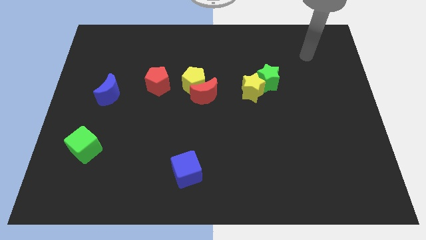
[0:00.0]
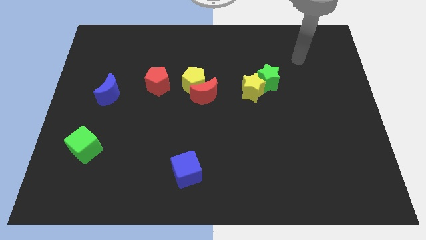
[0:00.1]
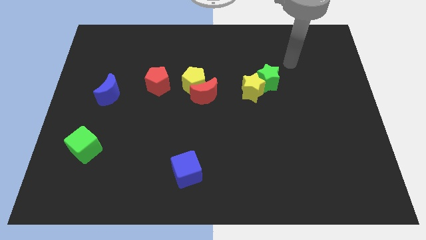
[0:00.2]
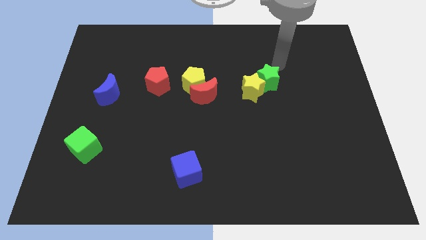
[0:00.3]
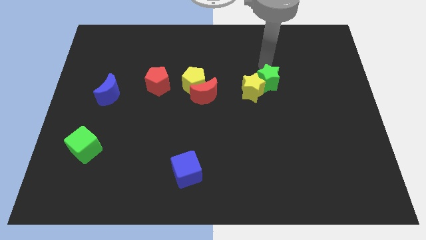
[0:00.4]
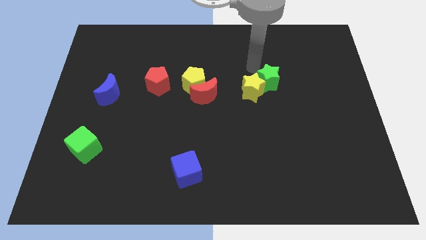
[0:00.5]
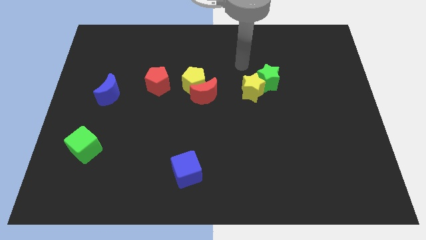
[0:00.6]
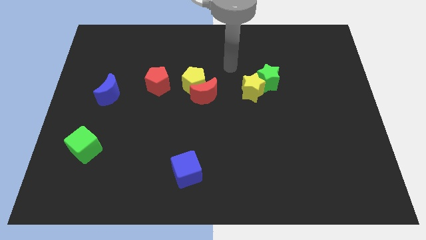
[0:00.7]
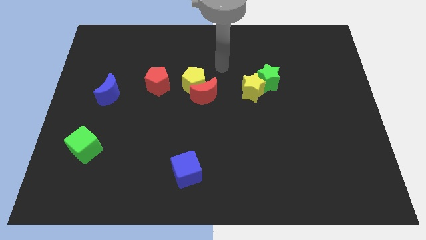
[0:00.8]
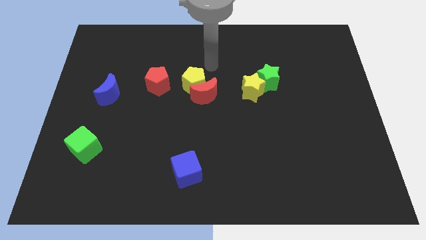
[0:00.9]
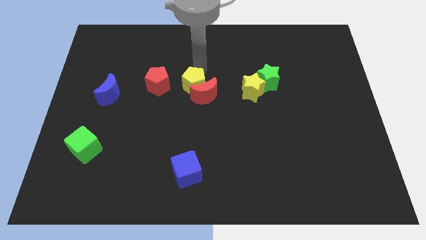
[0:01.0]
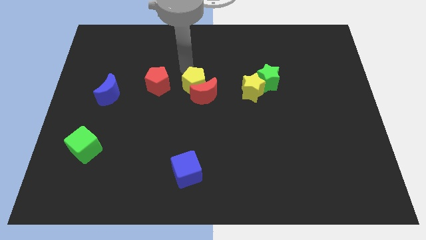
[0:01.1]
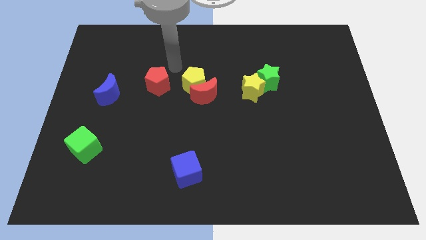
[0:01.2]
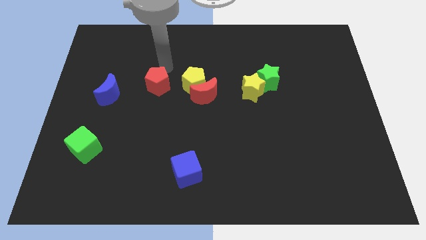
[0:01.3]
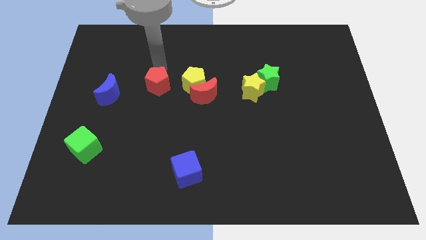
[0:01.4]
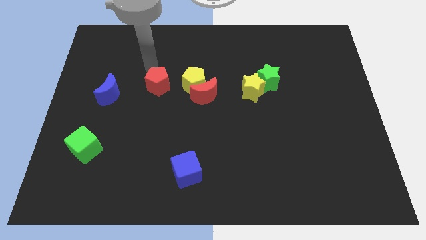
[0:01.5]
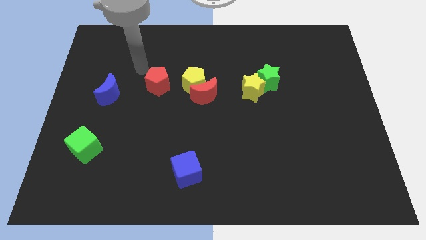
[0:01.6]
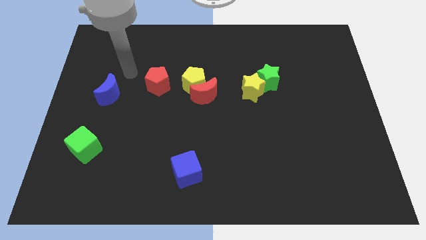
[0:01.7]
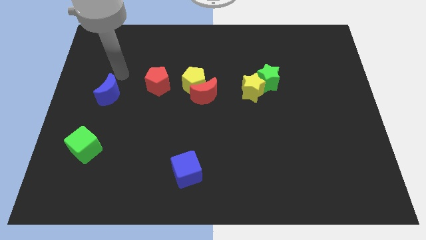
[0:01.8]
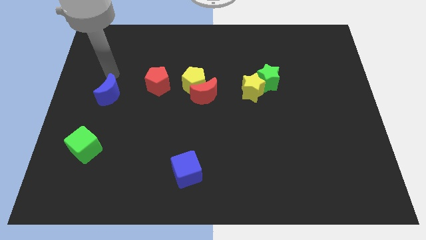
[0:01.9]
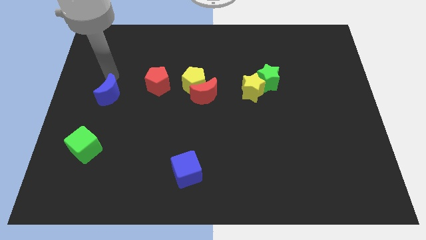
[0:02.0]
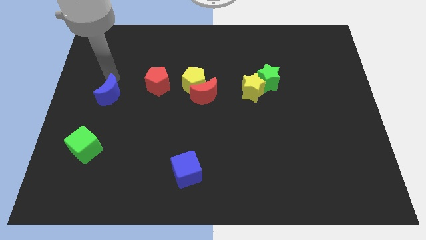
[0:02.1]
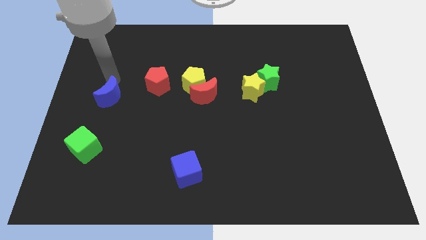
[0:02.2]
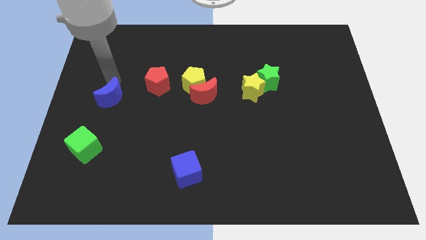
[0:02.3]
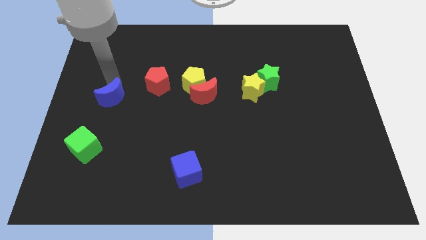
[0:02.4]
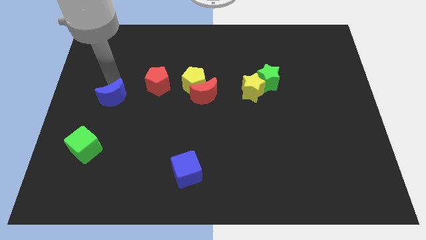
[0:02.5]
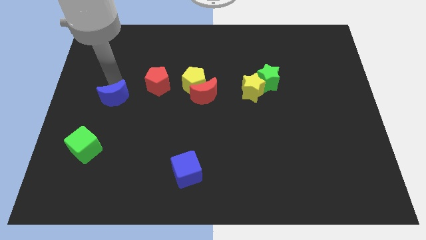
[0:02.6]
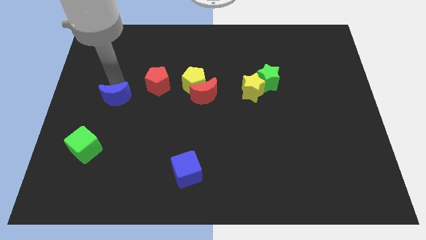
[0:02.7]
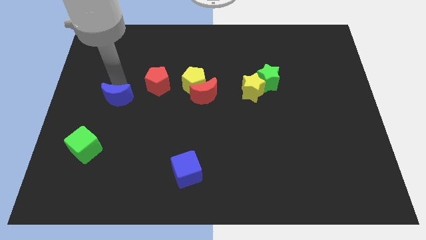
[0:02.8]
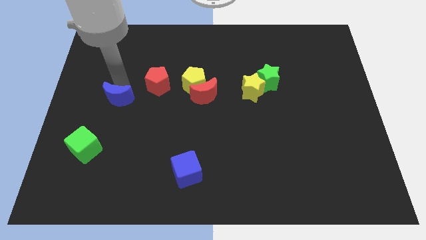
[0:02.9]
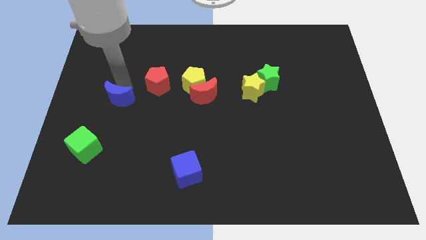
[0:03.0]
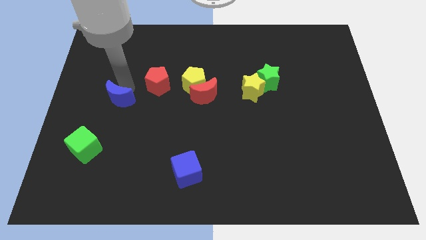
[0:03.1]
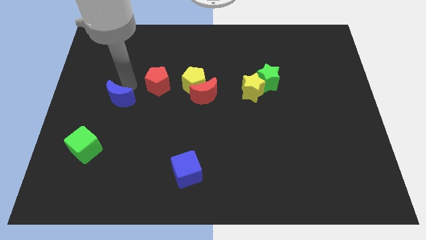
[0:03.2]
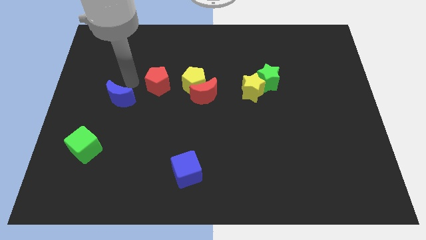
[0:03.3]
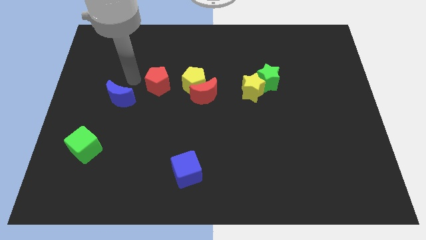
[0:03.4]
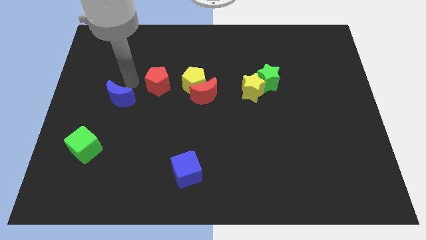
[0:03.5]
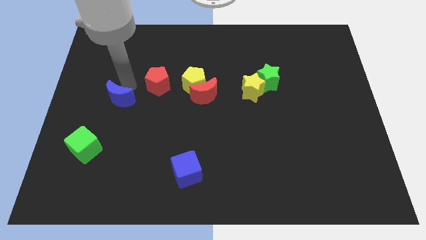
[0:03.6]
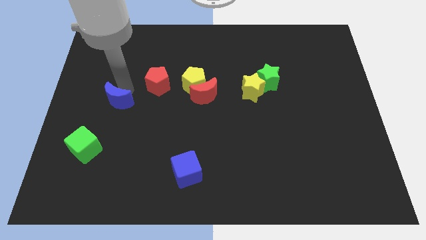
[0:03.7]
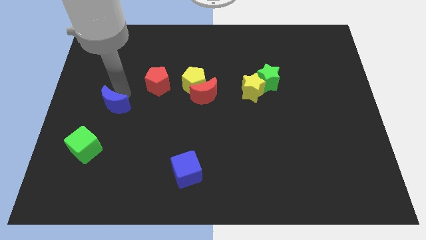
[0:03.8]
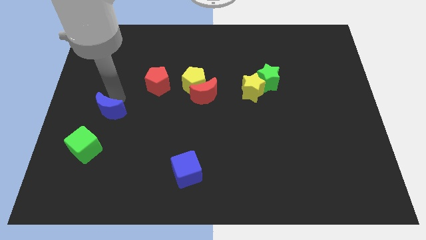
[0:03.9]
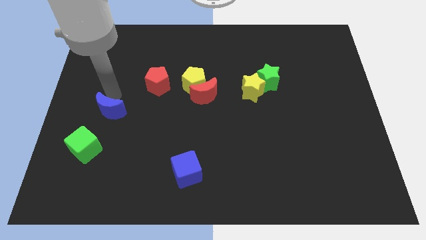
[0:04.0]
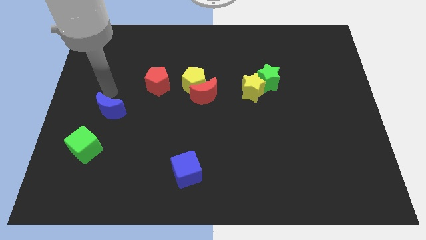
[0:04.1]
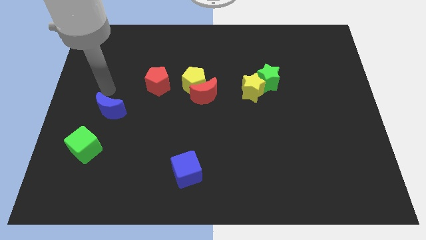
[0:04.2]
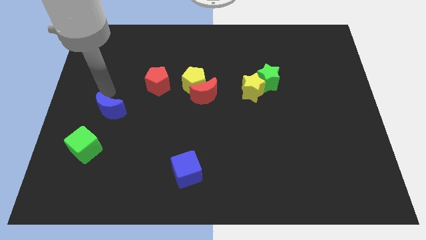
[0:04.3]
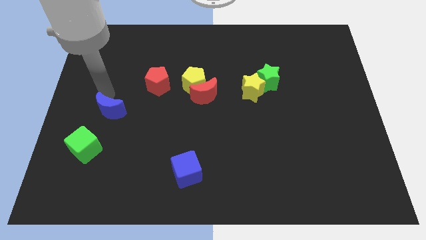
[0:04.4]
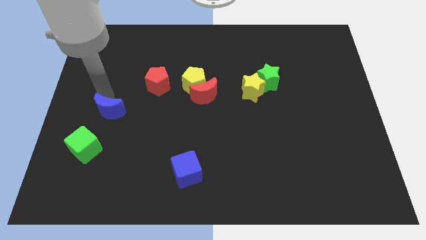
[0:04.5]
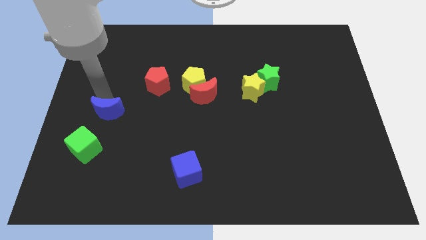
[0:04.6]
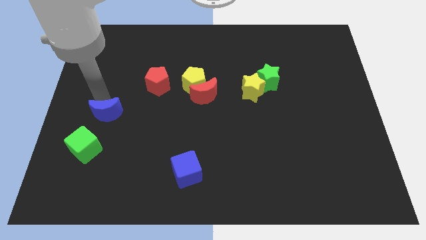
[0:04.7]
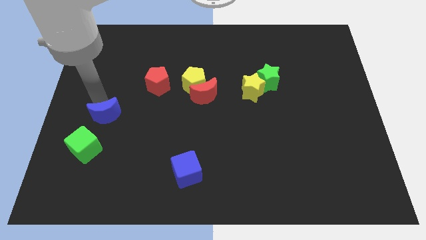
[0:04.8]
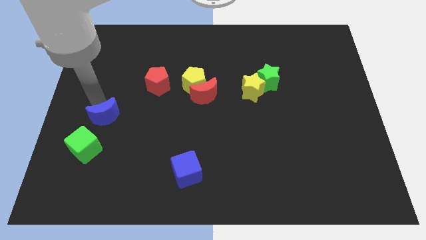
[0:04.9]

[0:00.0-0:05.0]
move the blue moon downwards a little bit

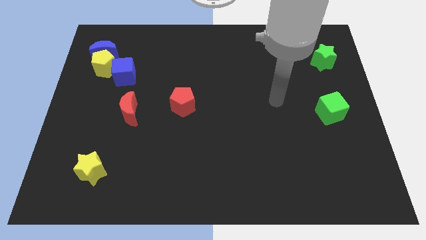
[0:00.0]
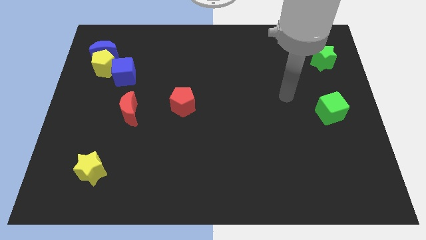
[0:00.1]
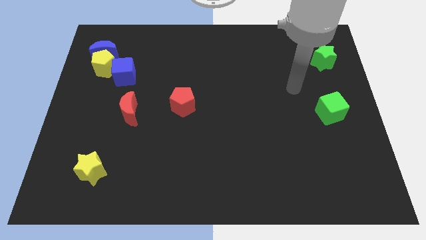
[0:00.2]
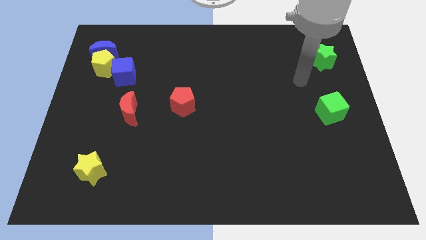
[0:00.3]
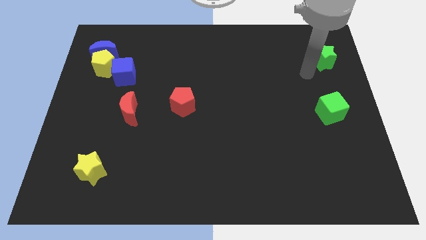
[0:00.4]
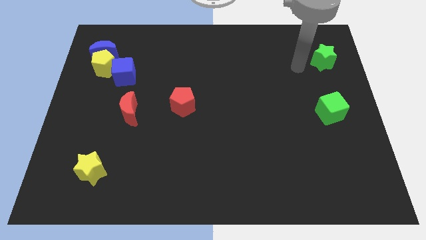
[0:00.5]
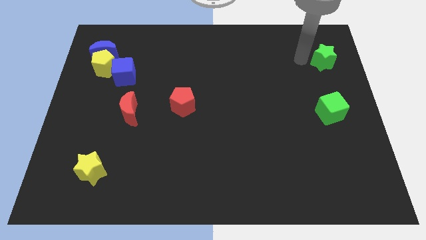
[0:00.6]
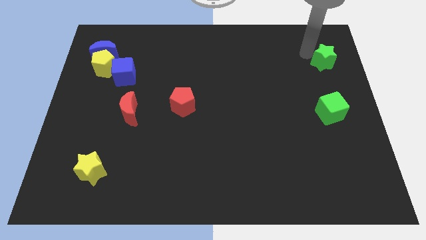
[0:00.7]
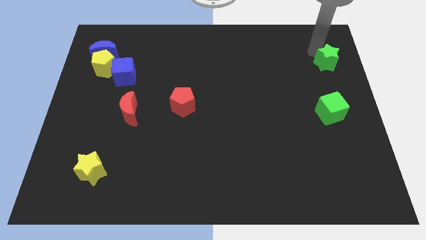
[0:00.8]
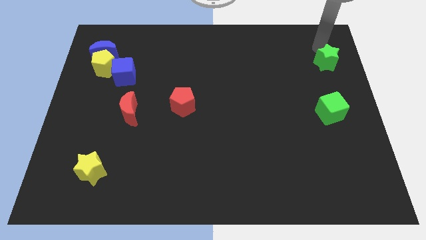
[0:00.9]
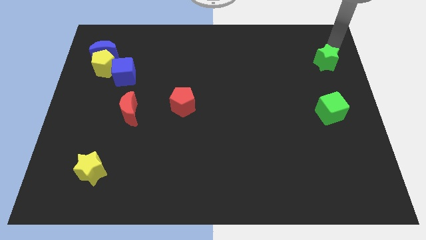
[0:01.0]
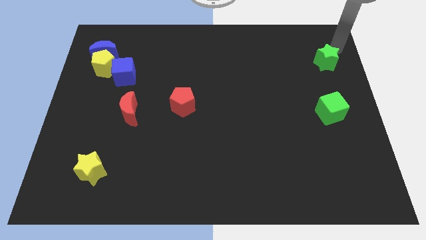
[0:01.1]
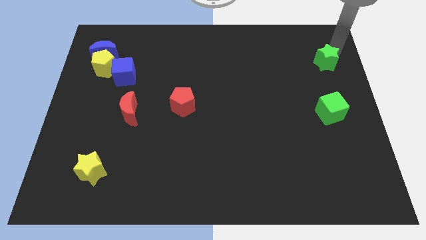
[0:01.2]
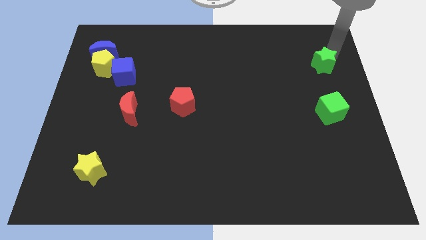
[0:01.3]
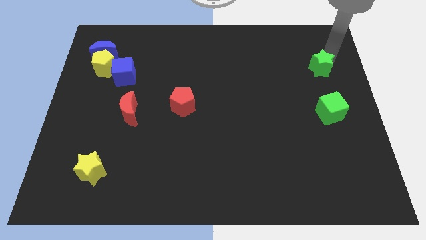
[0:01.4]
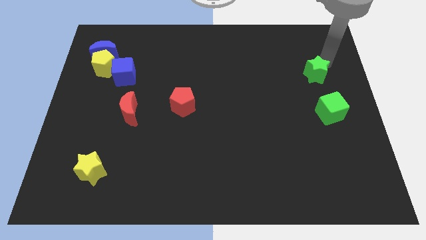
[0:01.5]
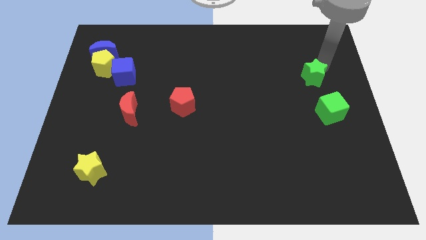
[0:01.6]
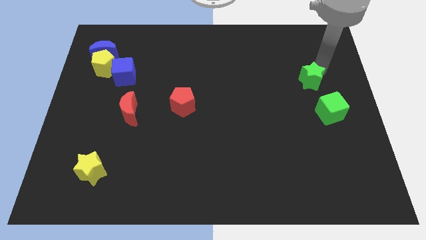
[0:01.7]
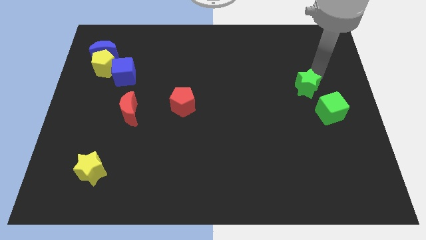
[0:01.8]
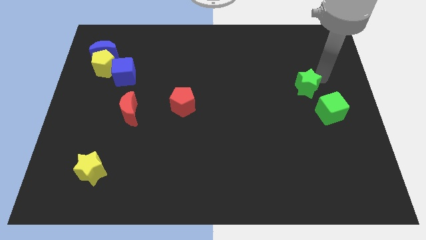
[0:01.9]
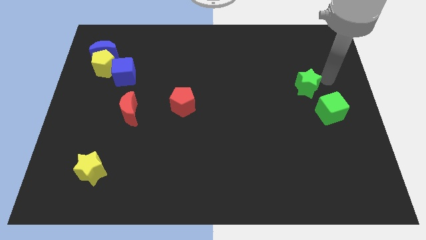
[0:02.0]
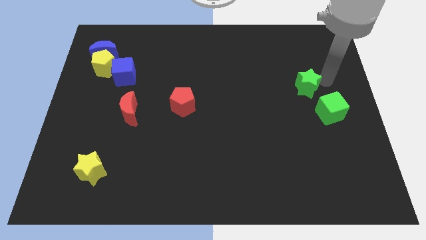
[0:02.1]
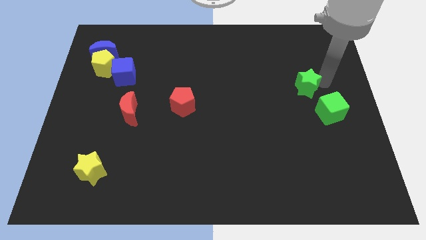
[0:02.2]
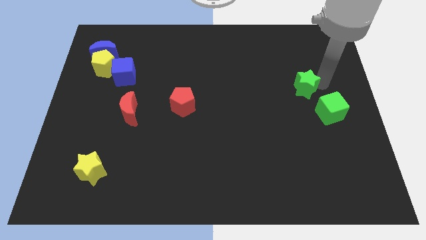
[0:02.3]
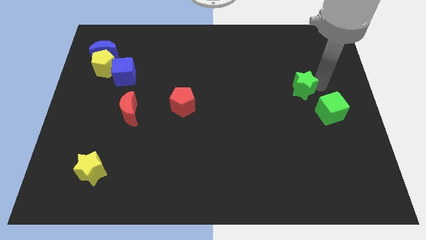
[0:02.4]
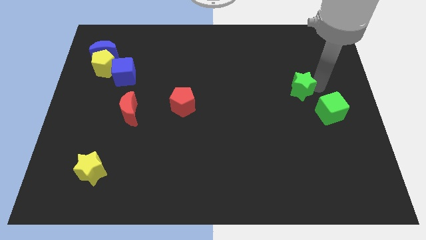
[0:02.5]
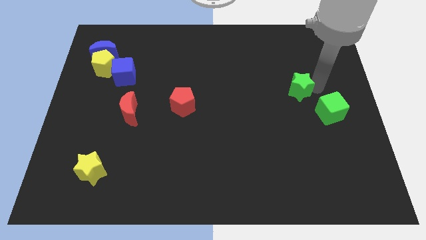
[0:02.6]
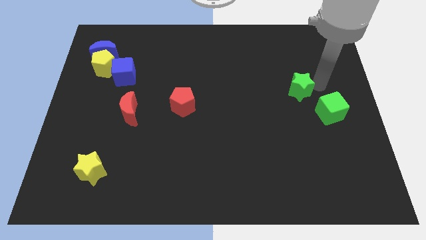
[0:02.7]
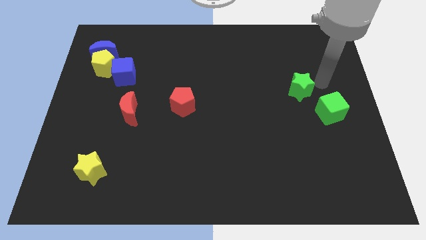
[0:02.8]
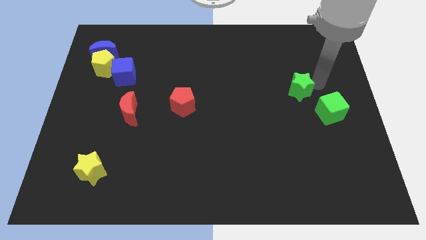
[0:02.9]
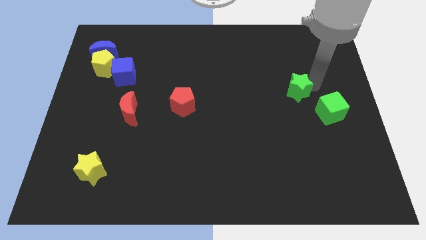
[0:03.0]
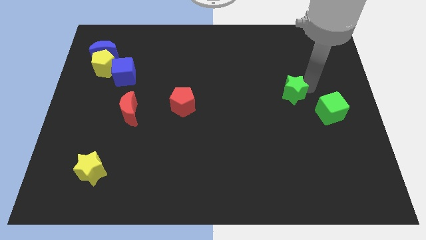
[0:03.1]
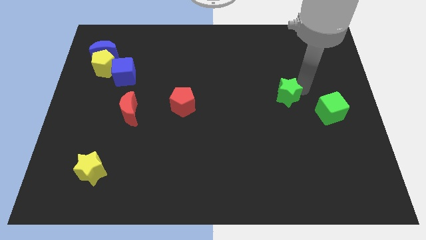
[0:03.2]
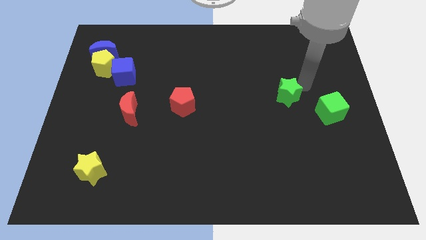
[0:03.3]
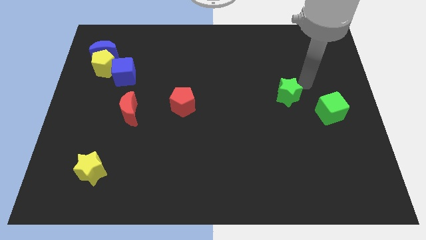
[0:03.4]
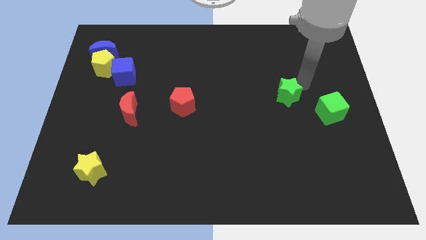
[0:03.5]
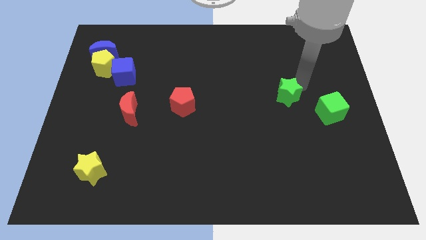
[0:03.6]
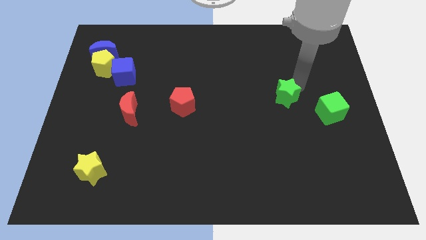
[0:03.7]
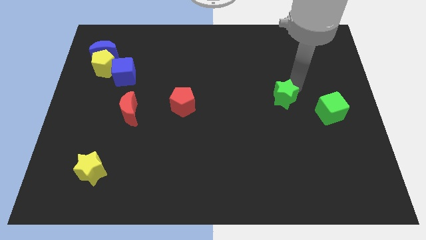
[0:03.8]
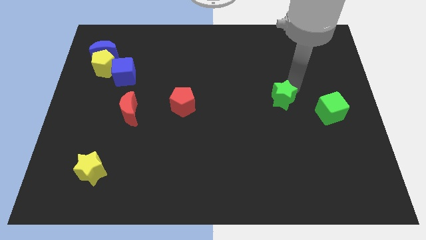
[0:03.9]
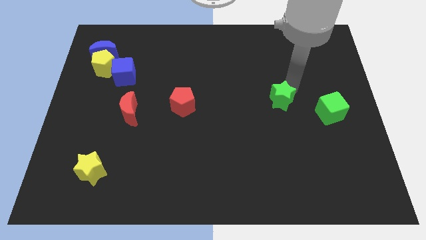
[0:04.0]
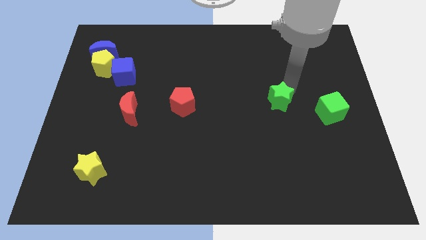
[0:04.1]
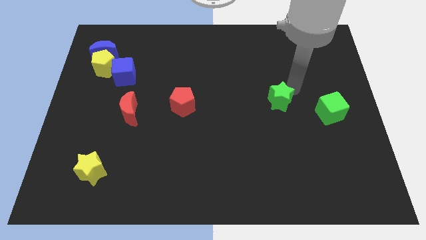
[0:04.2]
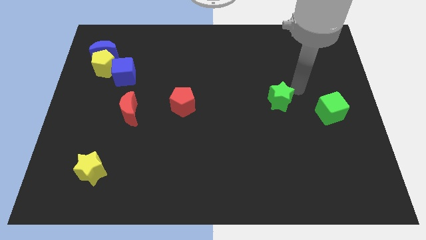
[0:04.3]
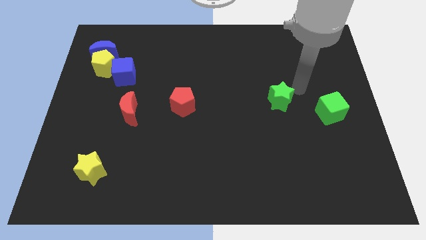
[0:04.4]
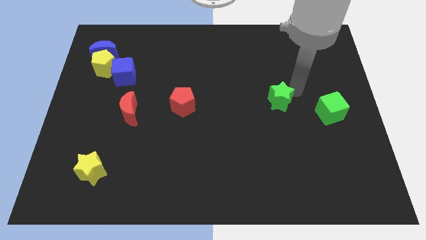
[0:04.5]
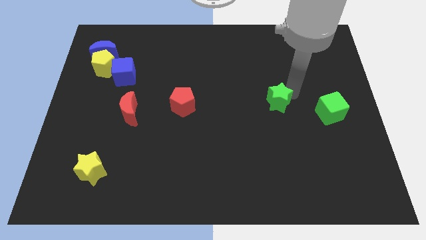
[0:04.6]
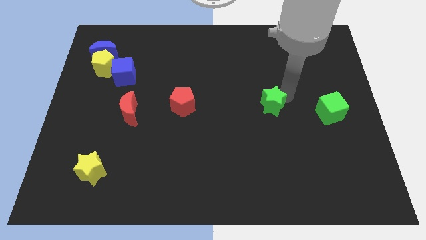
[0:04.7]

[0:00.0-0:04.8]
slide the green star down and left
